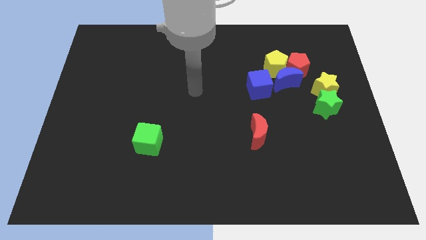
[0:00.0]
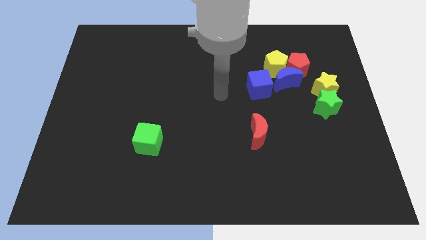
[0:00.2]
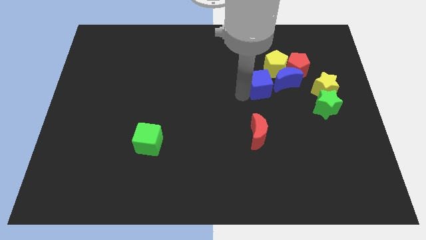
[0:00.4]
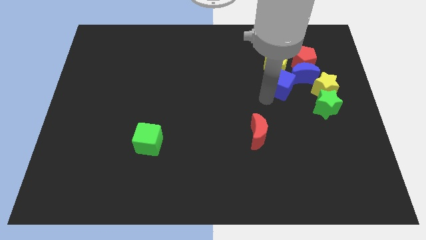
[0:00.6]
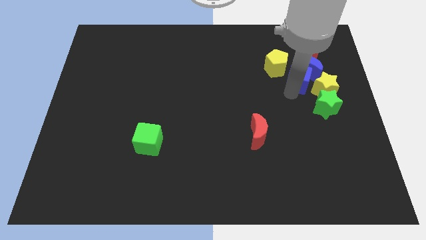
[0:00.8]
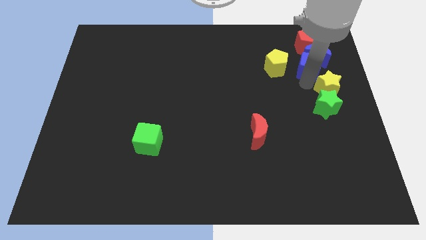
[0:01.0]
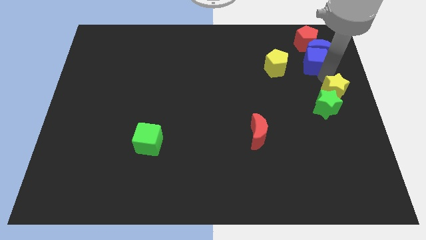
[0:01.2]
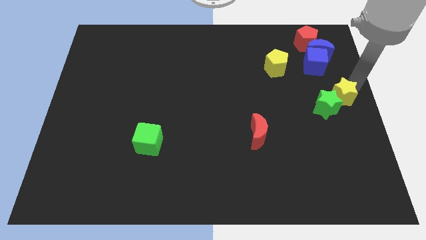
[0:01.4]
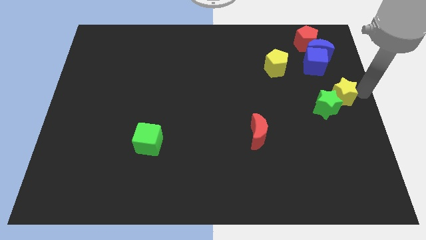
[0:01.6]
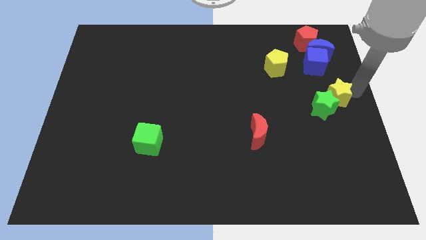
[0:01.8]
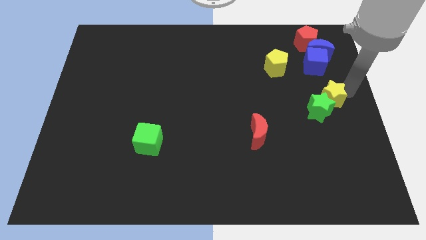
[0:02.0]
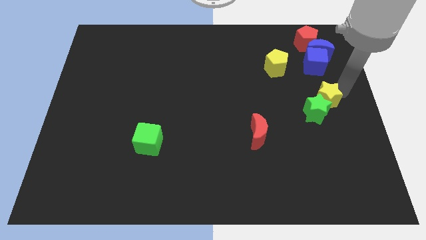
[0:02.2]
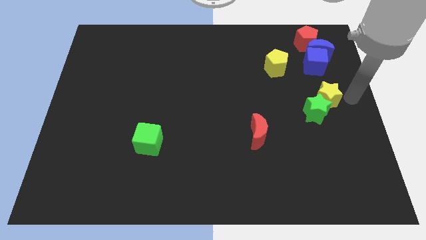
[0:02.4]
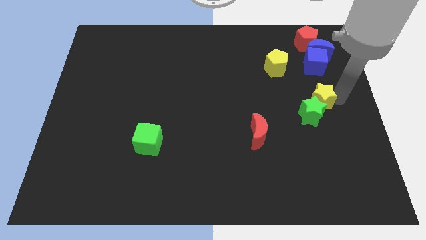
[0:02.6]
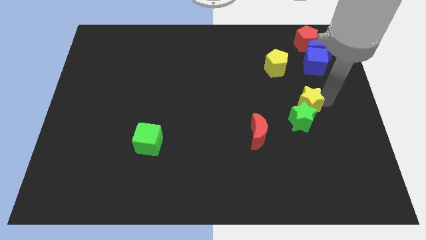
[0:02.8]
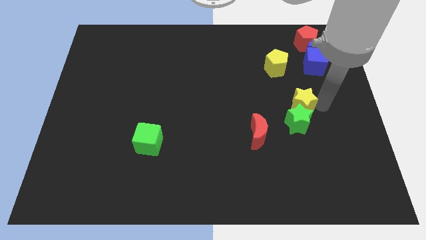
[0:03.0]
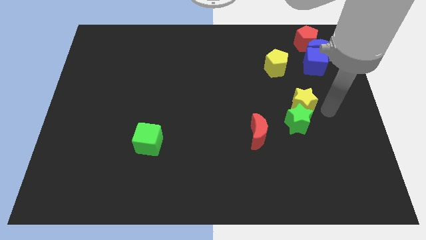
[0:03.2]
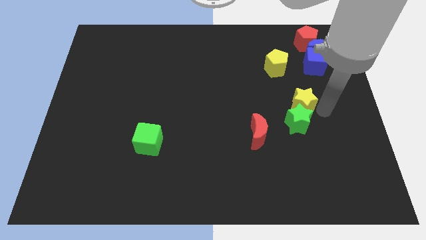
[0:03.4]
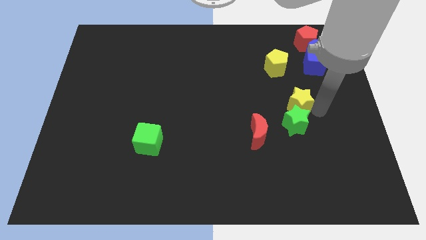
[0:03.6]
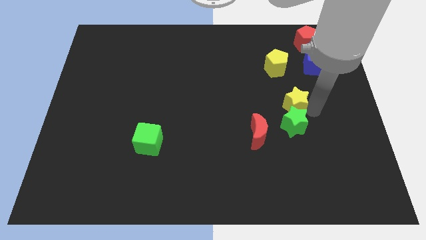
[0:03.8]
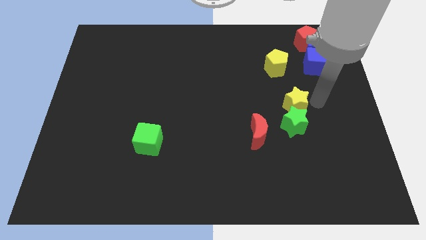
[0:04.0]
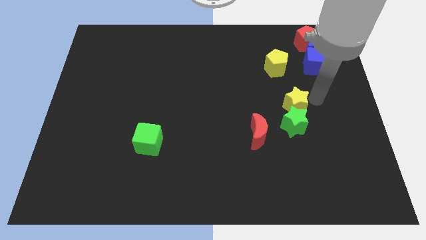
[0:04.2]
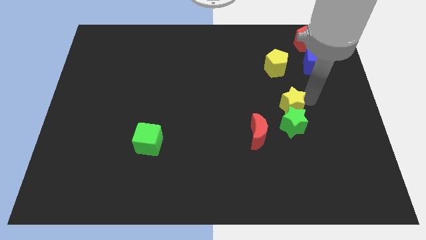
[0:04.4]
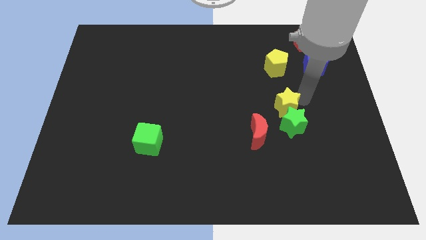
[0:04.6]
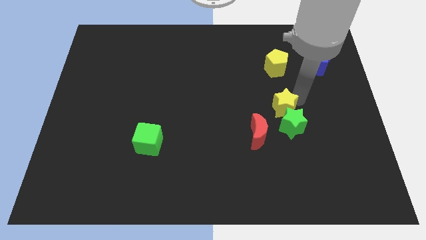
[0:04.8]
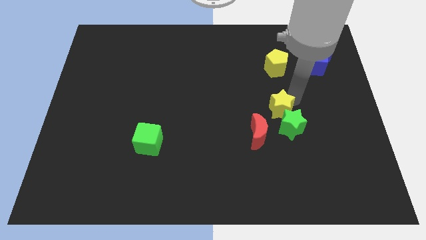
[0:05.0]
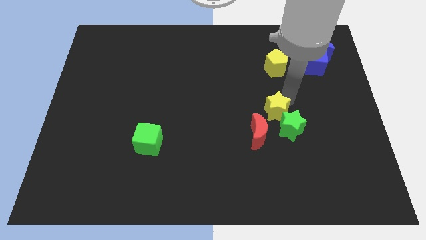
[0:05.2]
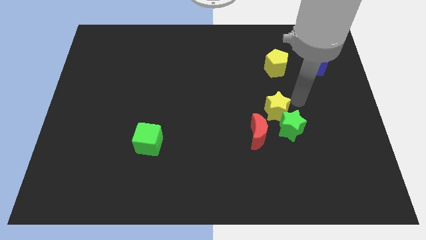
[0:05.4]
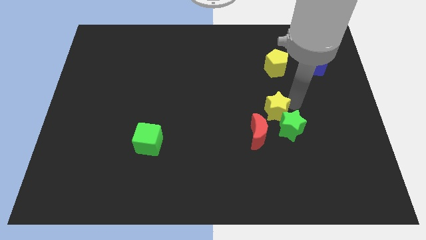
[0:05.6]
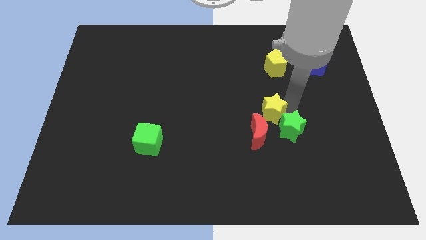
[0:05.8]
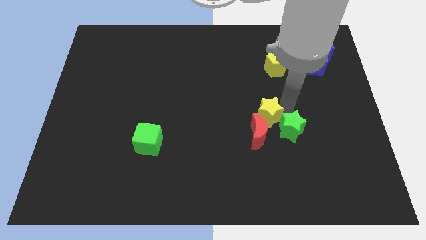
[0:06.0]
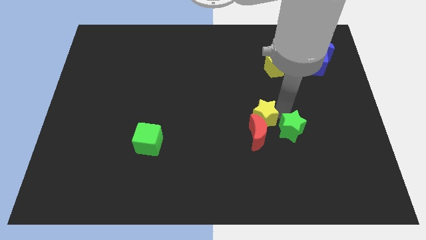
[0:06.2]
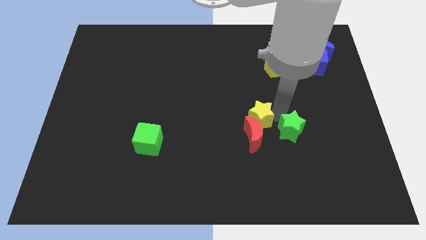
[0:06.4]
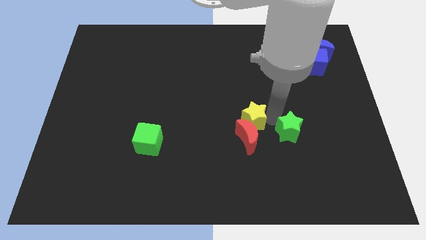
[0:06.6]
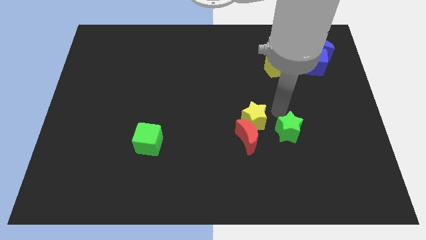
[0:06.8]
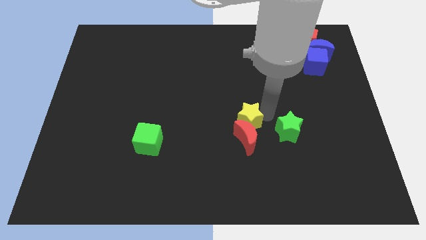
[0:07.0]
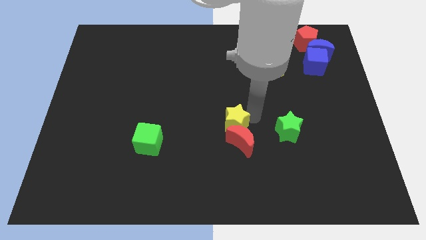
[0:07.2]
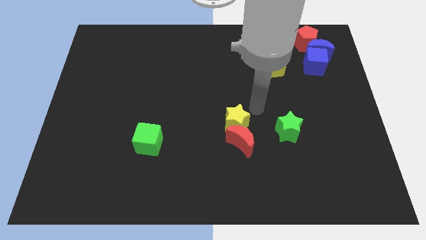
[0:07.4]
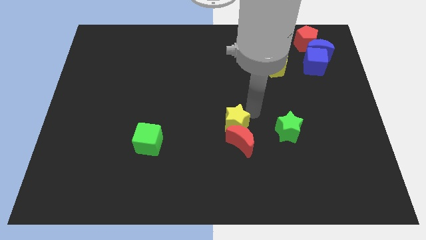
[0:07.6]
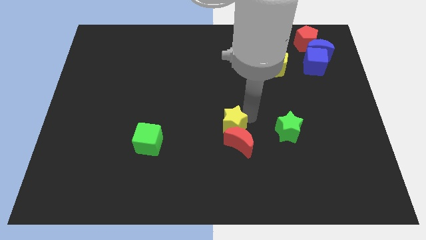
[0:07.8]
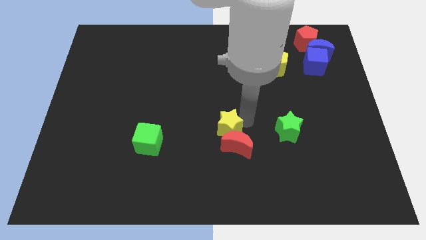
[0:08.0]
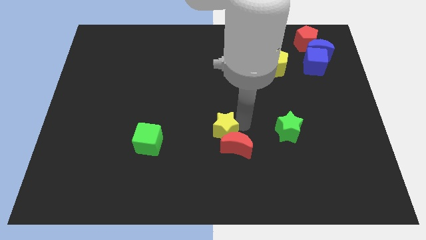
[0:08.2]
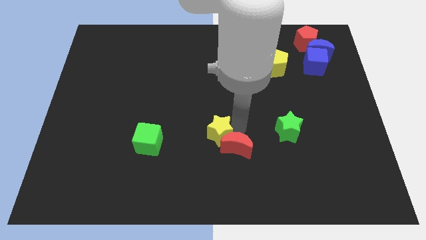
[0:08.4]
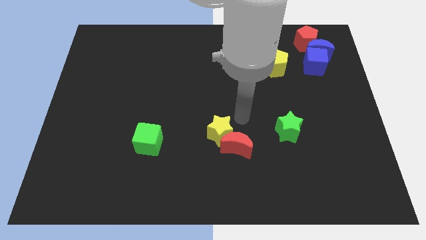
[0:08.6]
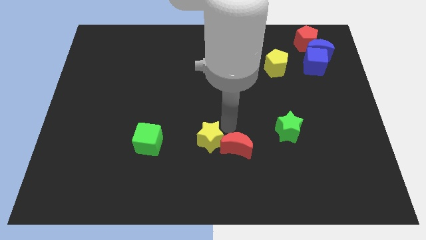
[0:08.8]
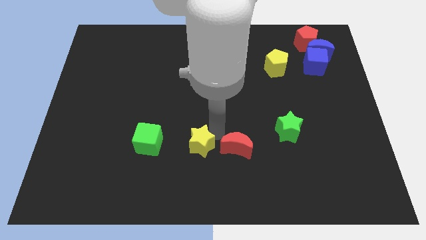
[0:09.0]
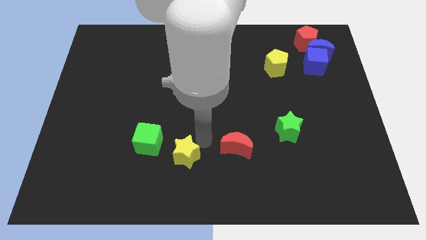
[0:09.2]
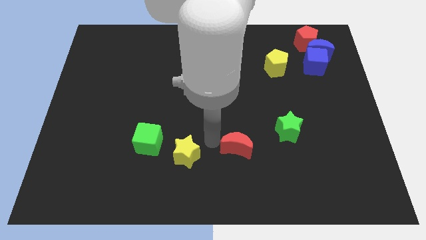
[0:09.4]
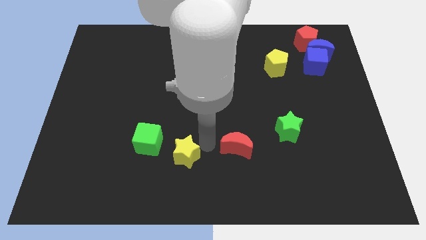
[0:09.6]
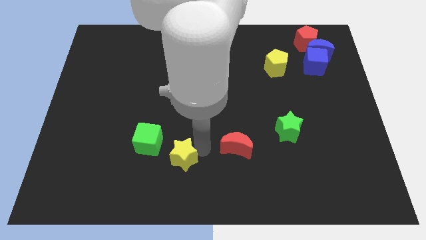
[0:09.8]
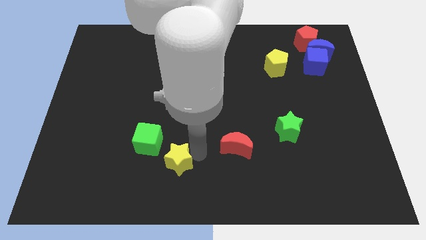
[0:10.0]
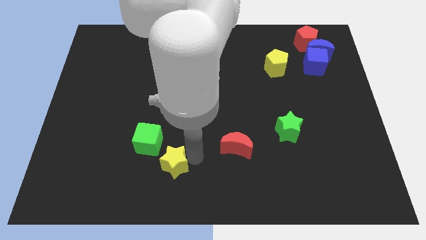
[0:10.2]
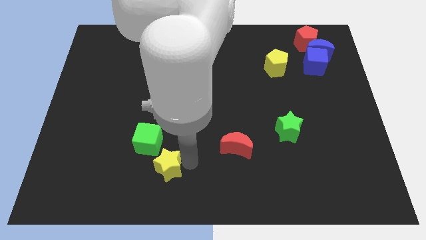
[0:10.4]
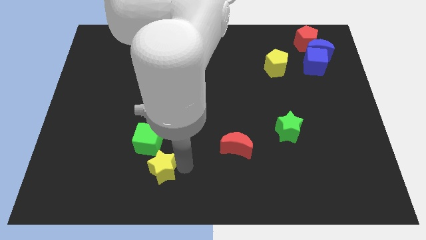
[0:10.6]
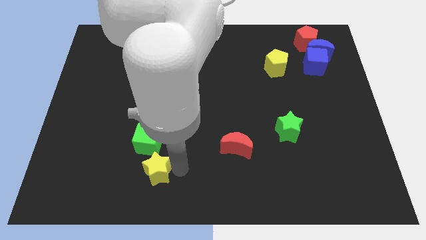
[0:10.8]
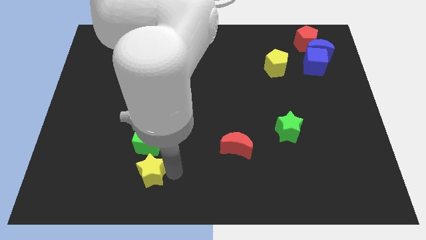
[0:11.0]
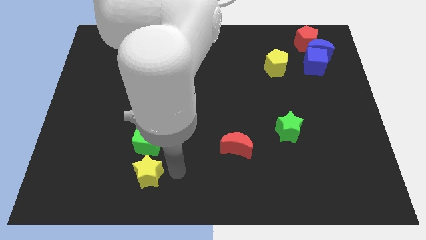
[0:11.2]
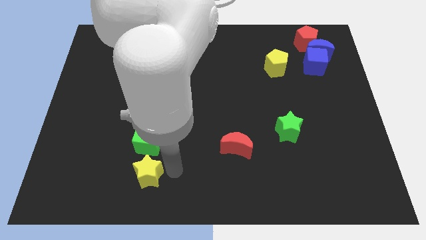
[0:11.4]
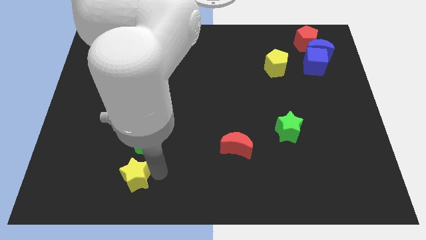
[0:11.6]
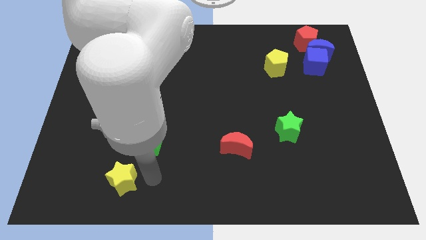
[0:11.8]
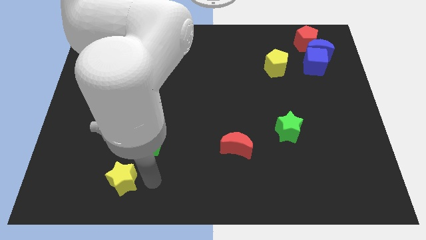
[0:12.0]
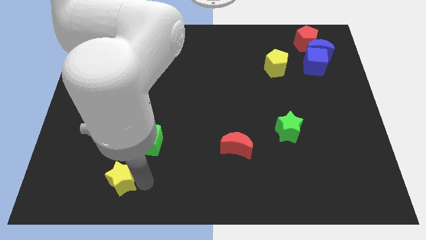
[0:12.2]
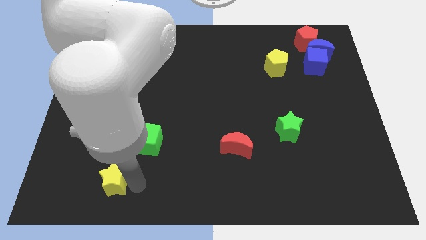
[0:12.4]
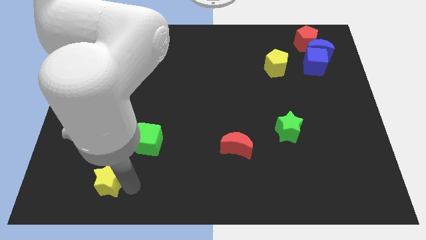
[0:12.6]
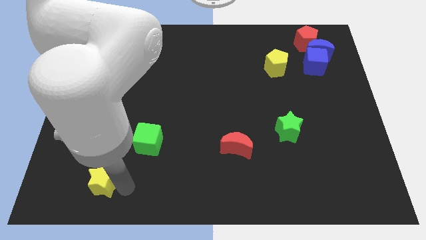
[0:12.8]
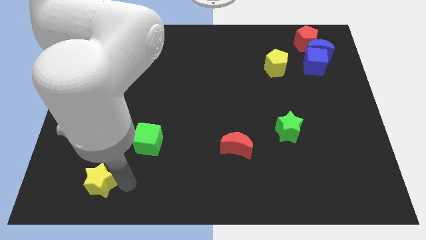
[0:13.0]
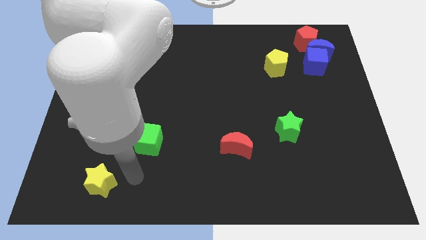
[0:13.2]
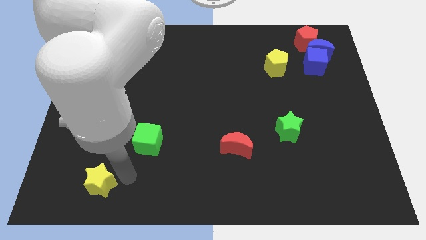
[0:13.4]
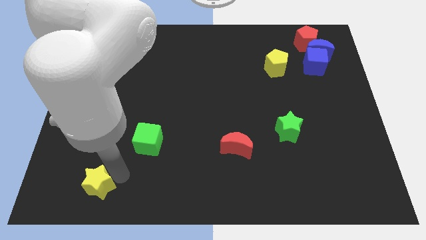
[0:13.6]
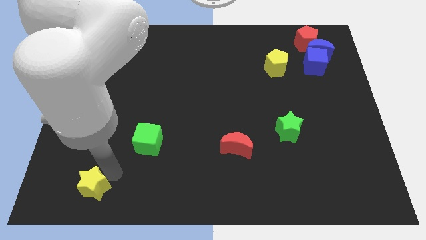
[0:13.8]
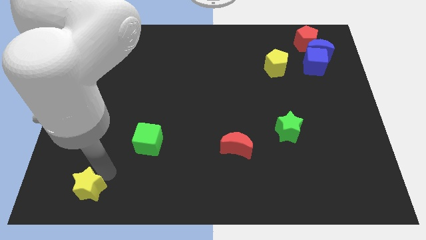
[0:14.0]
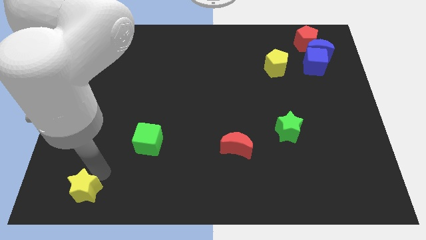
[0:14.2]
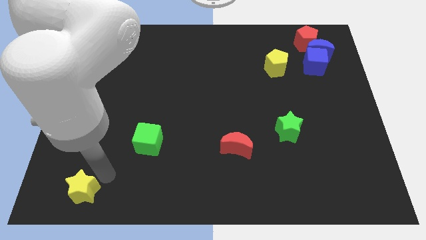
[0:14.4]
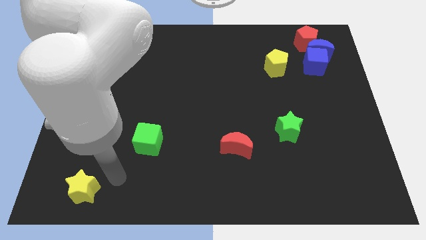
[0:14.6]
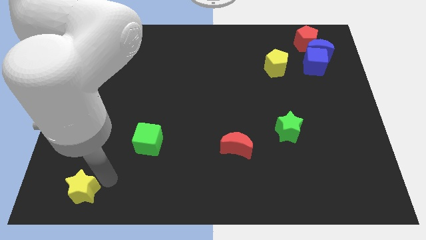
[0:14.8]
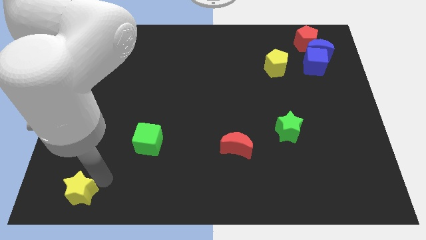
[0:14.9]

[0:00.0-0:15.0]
push the yellow star to the lower left corner
